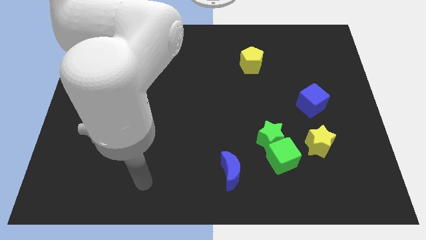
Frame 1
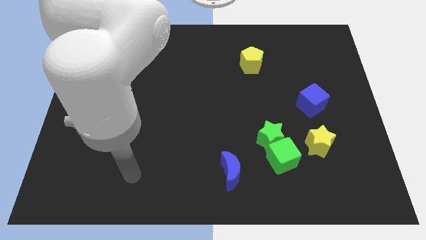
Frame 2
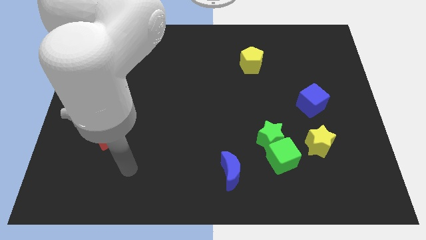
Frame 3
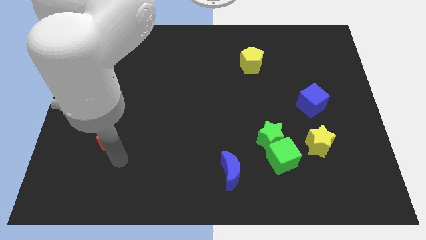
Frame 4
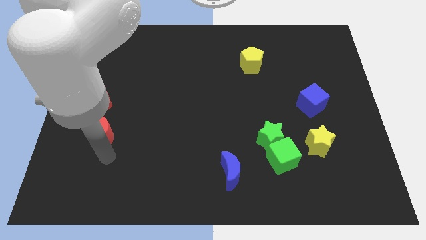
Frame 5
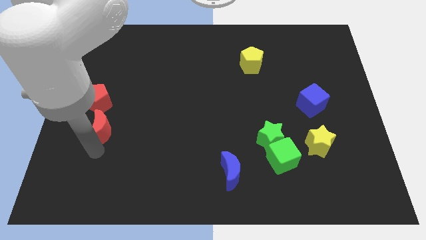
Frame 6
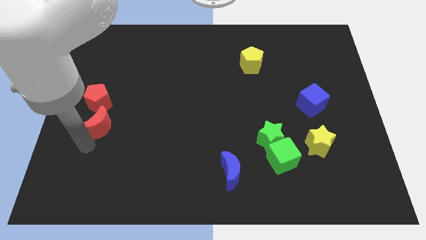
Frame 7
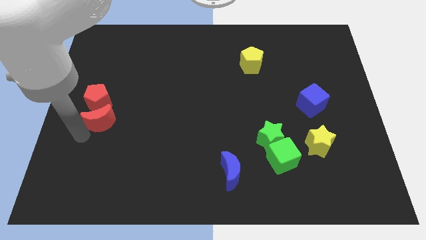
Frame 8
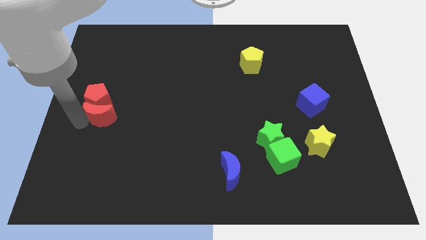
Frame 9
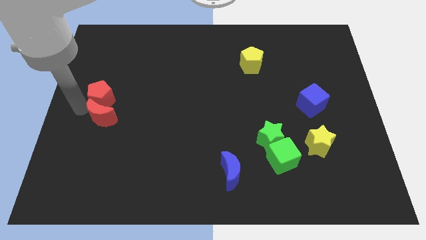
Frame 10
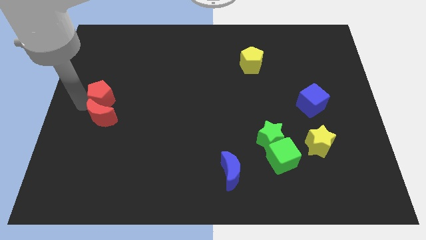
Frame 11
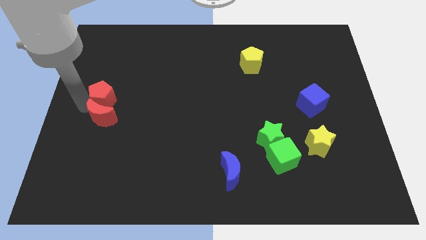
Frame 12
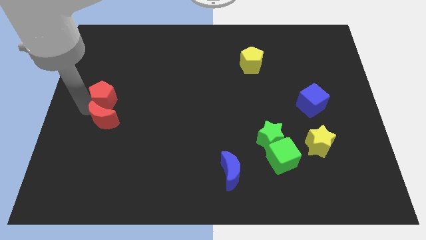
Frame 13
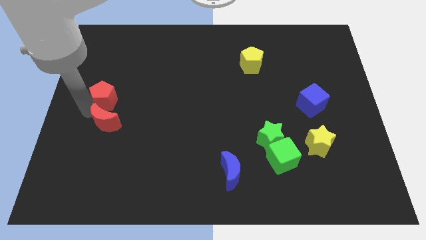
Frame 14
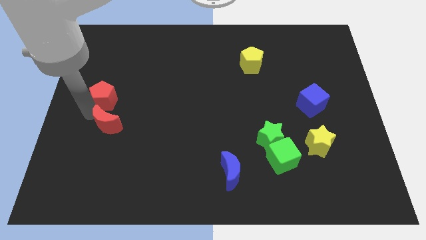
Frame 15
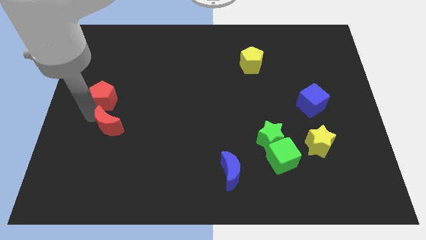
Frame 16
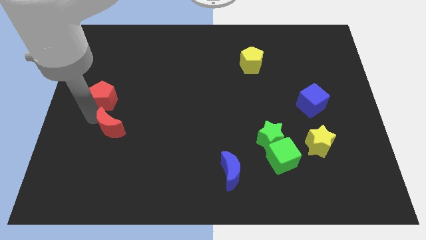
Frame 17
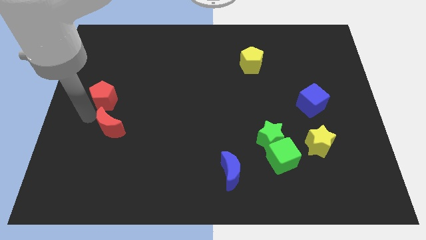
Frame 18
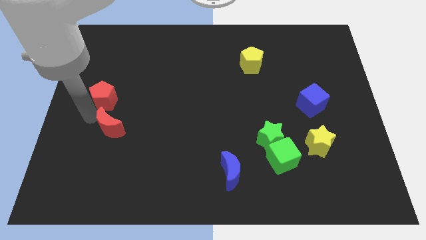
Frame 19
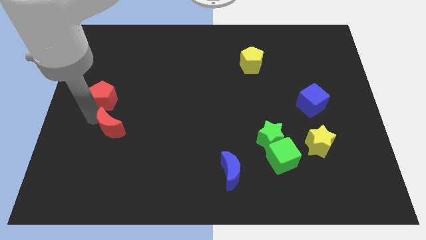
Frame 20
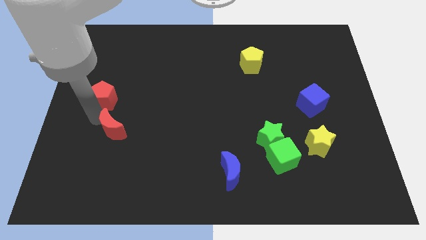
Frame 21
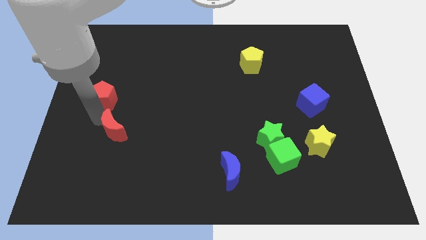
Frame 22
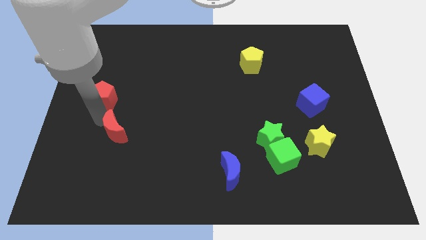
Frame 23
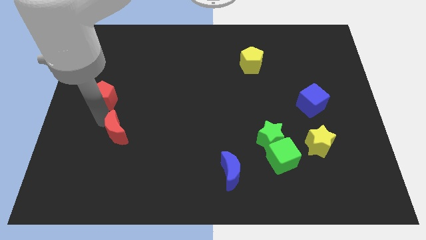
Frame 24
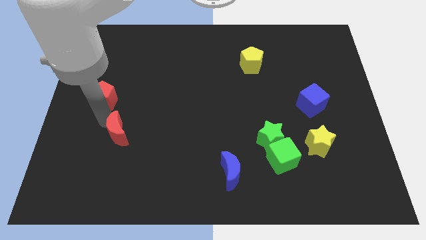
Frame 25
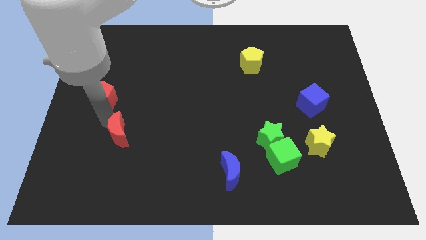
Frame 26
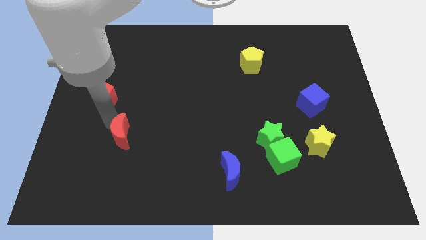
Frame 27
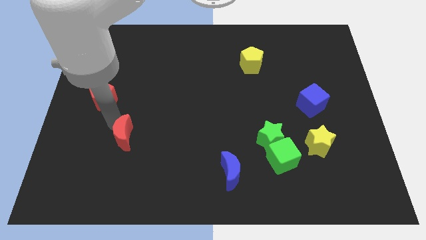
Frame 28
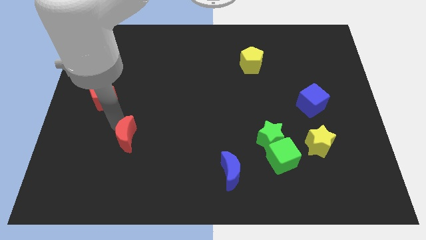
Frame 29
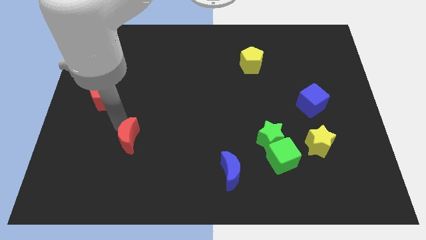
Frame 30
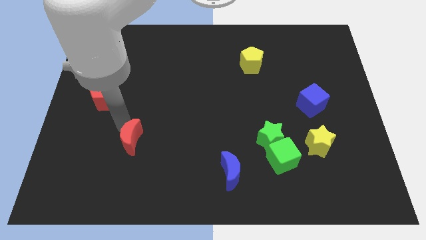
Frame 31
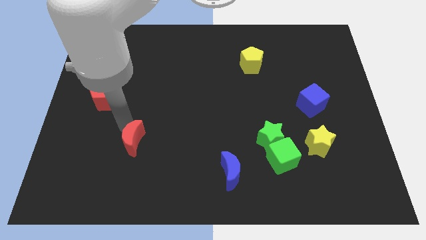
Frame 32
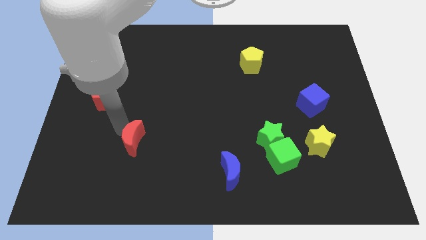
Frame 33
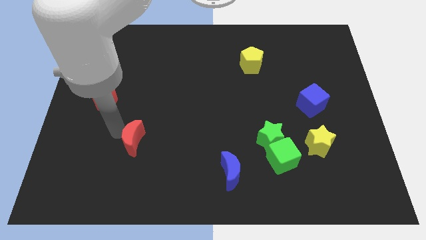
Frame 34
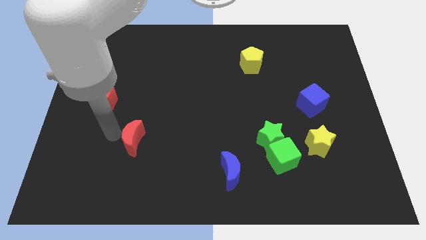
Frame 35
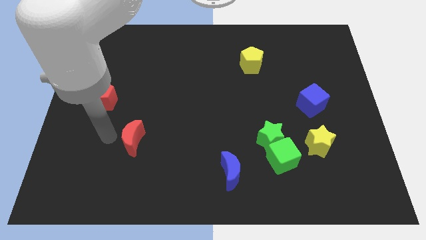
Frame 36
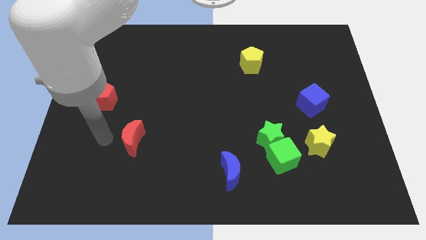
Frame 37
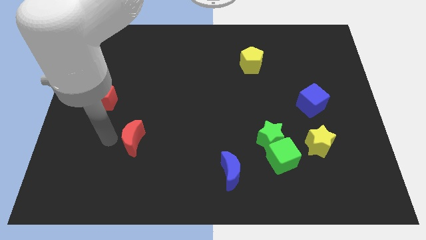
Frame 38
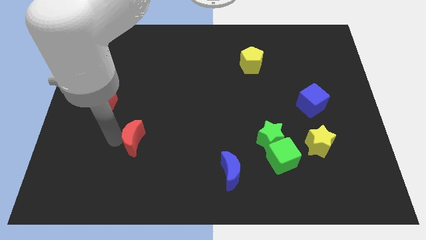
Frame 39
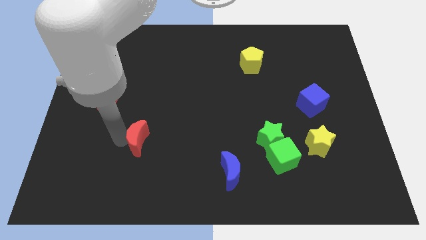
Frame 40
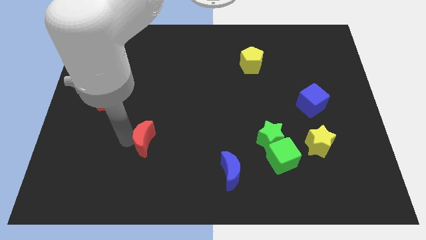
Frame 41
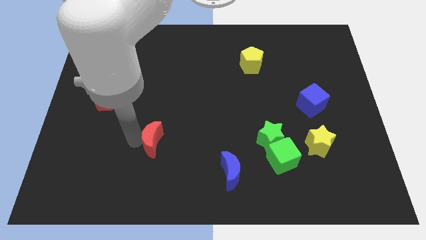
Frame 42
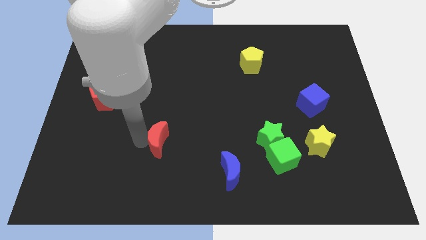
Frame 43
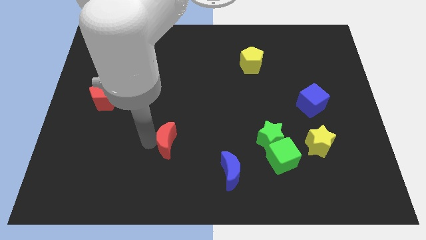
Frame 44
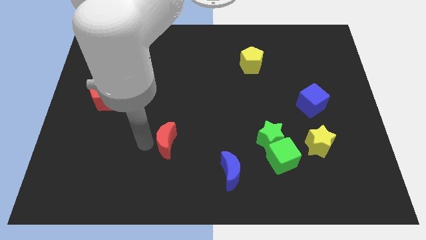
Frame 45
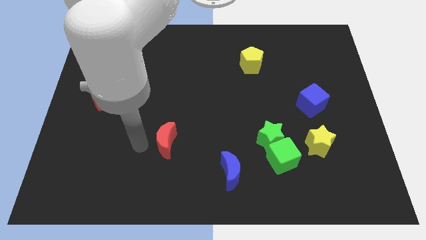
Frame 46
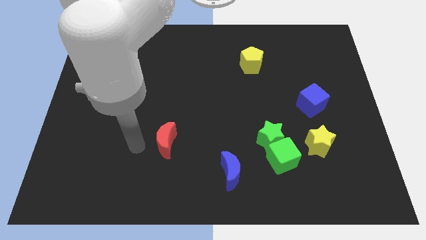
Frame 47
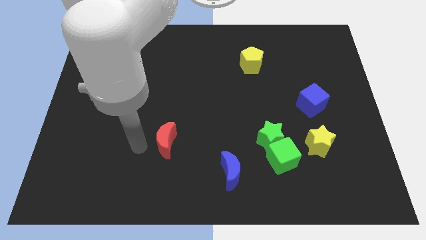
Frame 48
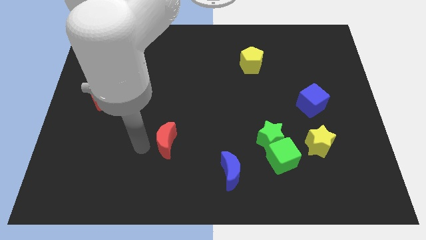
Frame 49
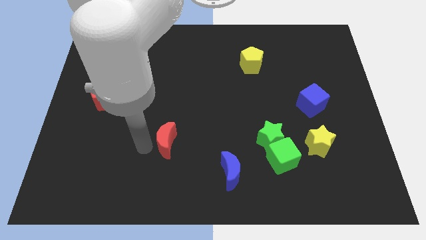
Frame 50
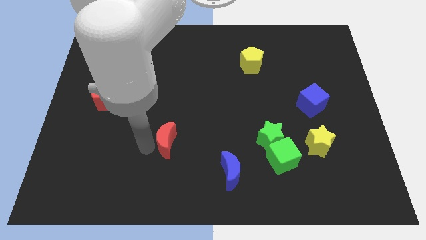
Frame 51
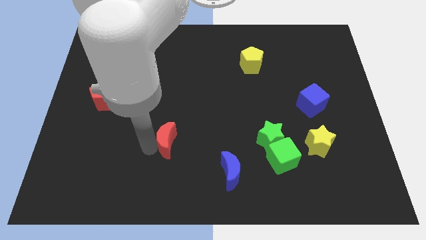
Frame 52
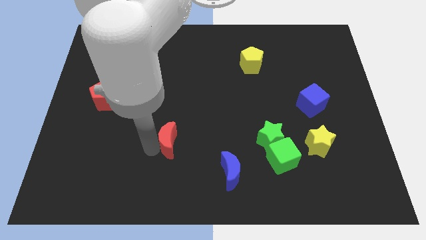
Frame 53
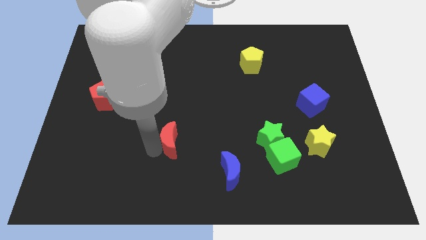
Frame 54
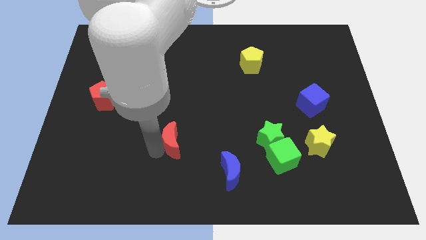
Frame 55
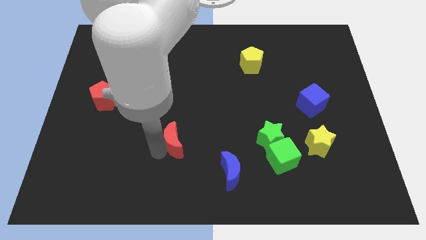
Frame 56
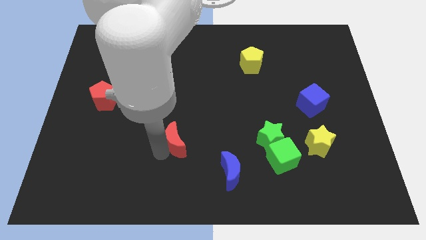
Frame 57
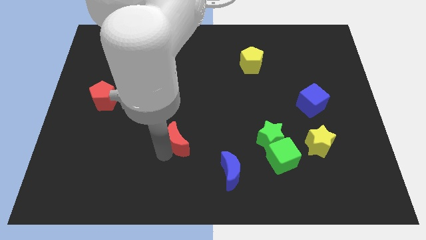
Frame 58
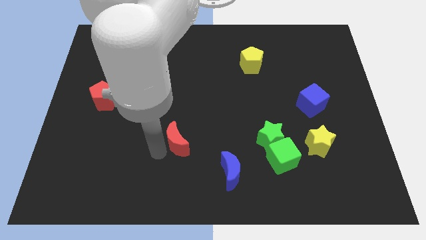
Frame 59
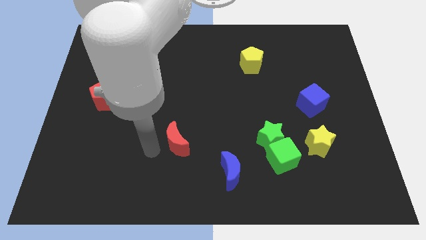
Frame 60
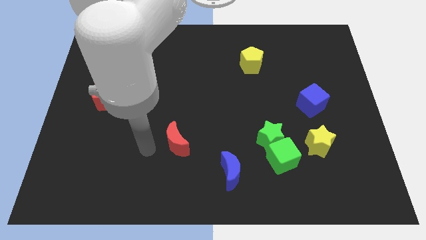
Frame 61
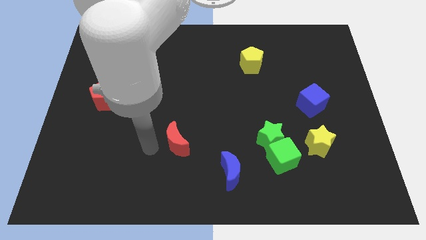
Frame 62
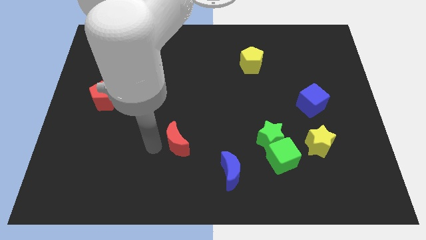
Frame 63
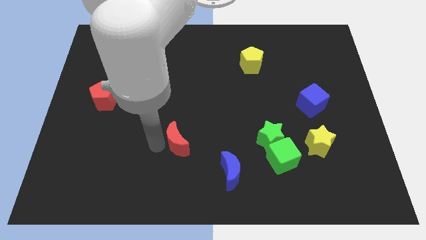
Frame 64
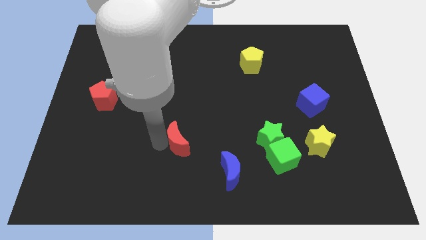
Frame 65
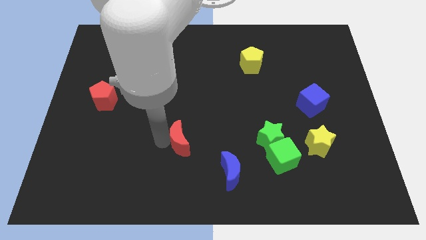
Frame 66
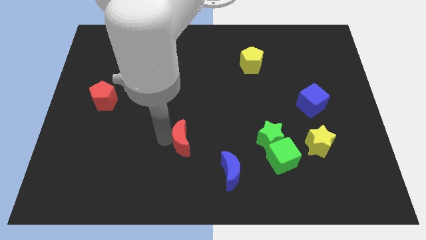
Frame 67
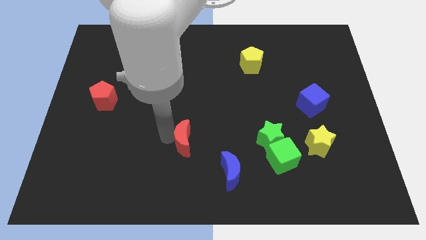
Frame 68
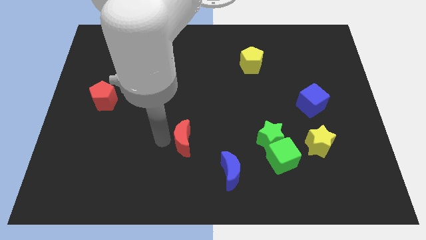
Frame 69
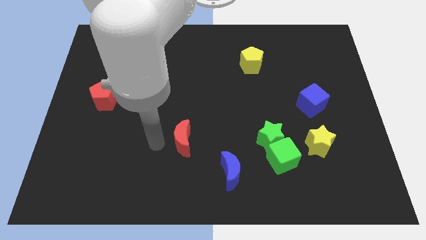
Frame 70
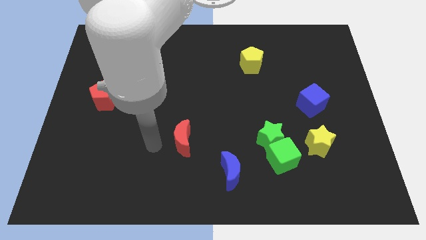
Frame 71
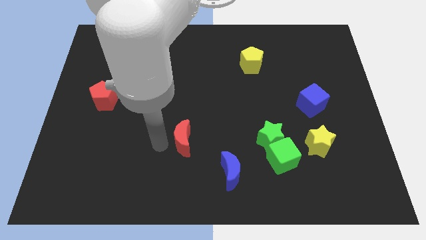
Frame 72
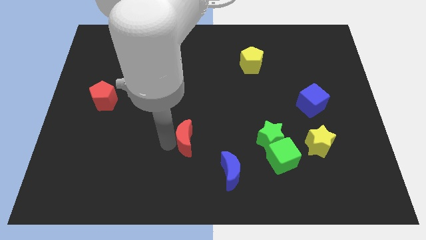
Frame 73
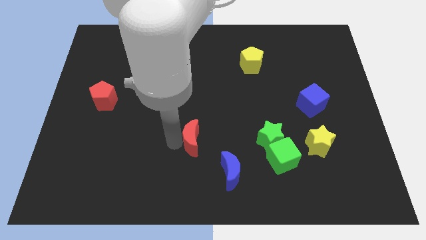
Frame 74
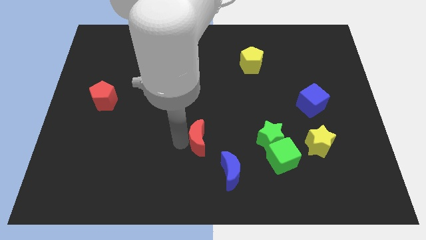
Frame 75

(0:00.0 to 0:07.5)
slide the red moon right

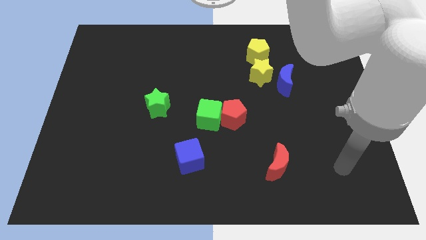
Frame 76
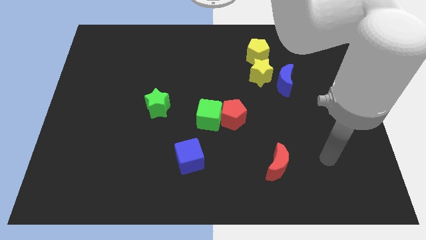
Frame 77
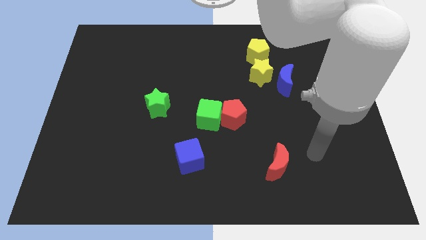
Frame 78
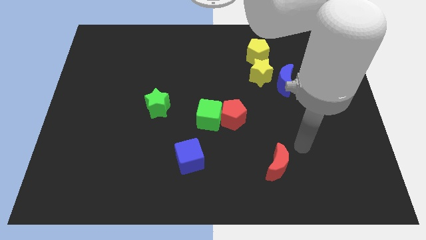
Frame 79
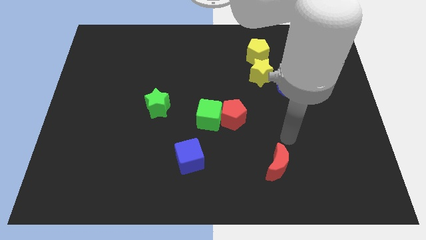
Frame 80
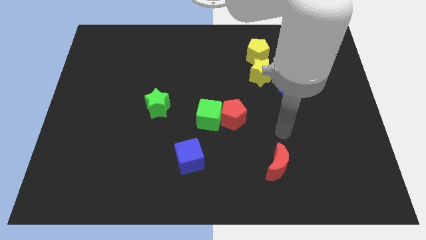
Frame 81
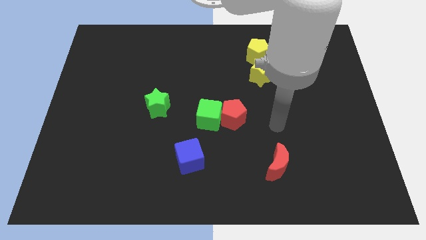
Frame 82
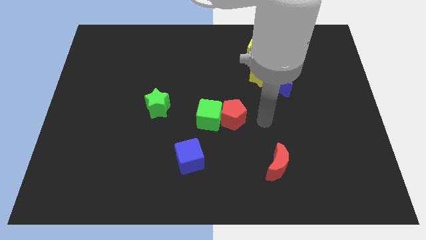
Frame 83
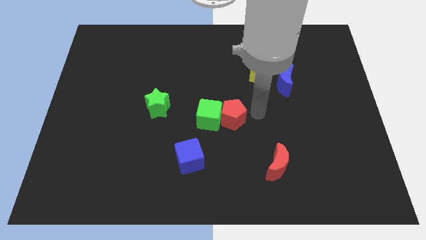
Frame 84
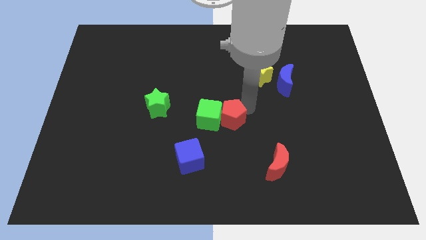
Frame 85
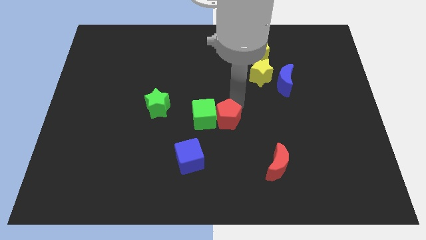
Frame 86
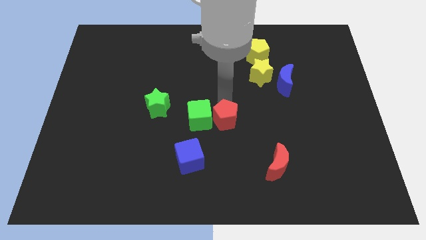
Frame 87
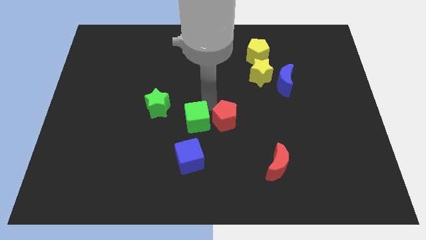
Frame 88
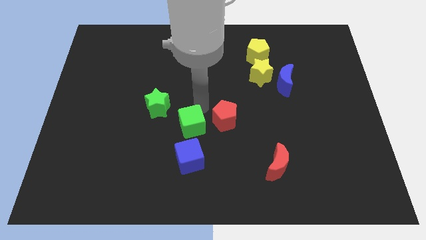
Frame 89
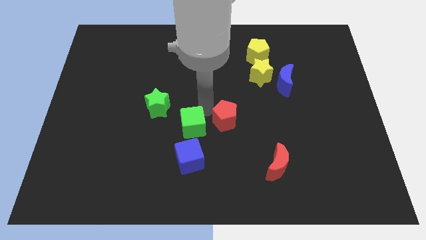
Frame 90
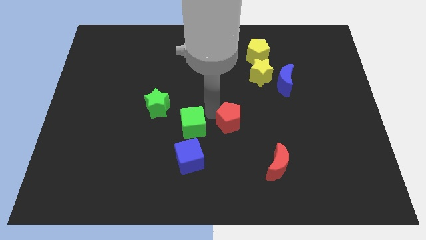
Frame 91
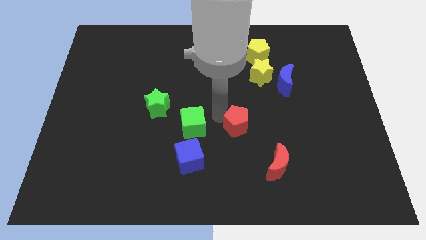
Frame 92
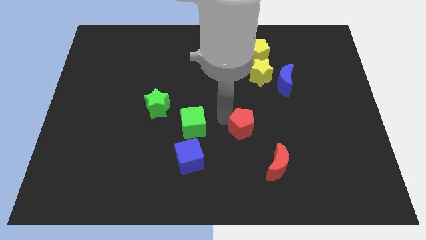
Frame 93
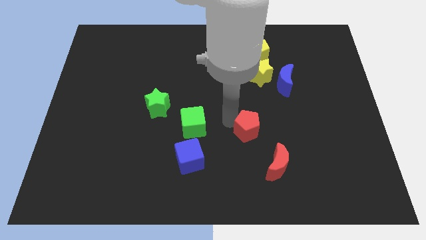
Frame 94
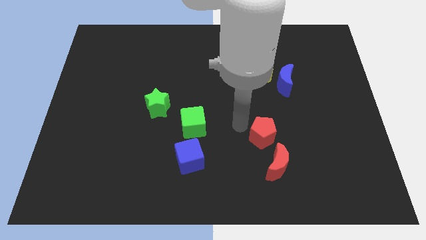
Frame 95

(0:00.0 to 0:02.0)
slightly push the red pentagon diagonally downwards and to the right
